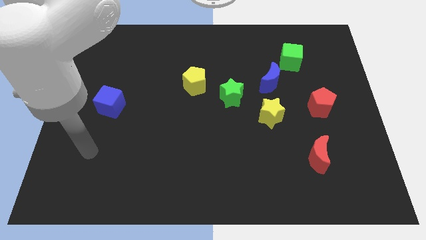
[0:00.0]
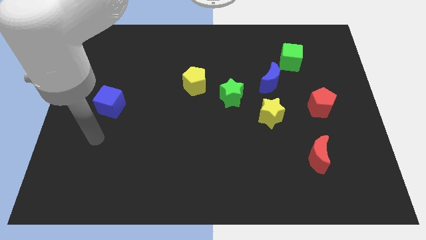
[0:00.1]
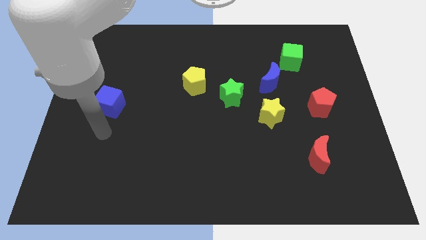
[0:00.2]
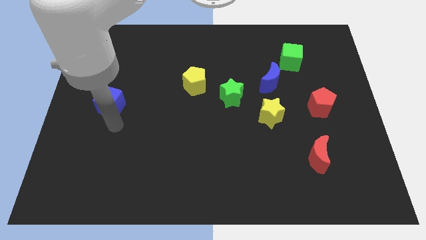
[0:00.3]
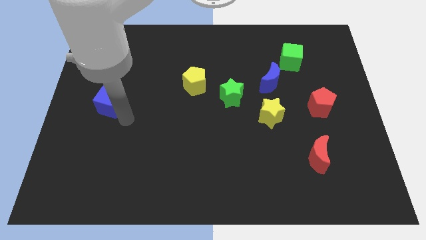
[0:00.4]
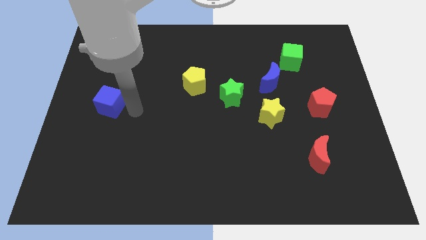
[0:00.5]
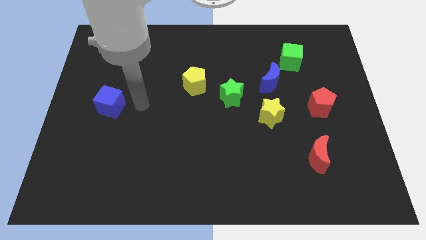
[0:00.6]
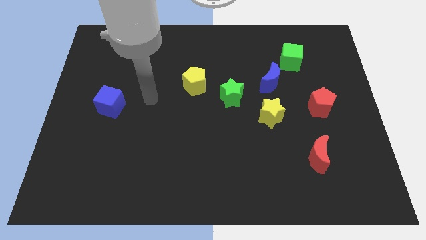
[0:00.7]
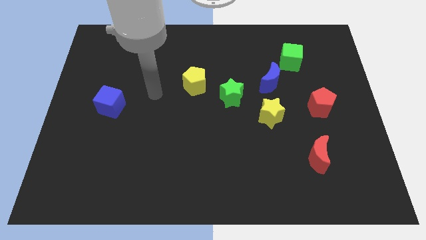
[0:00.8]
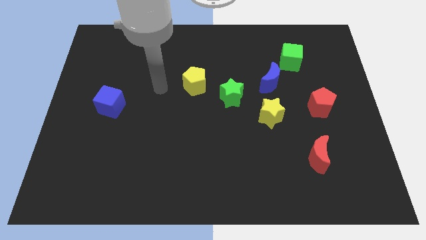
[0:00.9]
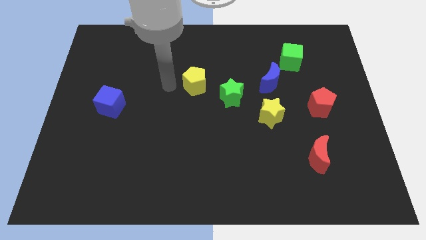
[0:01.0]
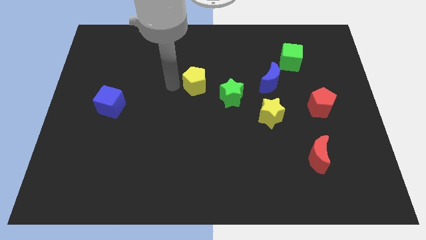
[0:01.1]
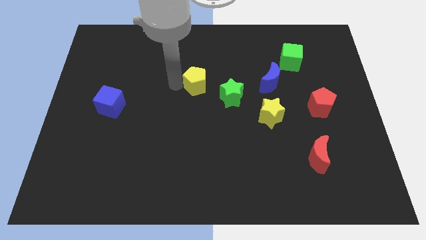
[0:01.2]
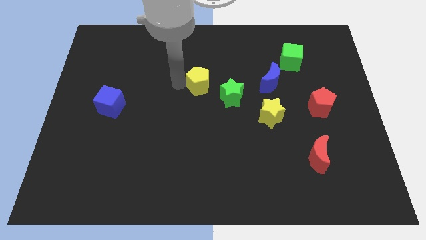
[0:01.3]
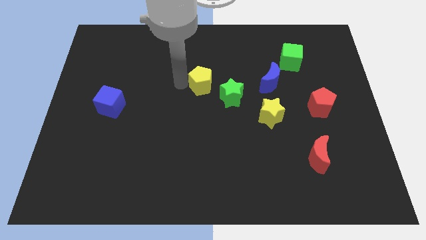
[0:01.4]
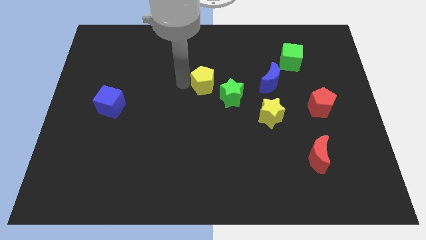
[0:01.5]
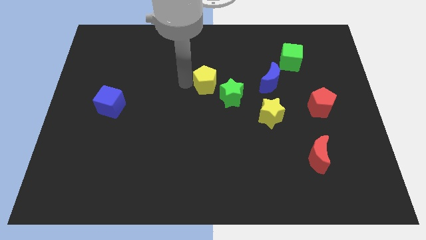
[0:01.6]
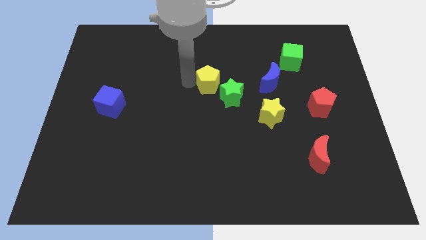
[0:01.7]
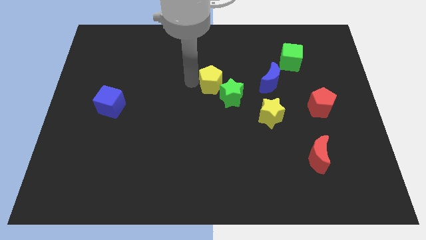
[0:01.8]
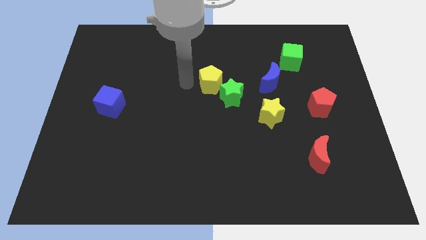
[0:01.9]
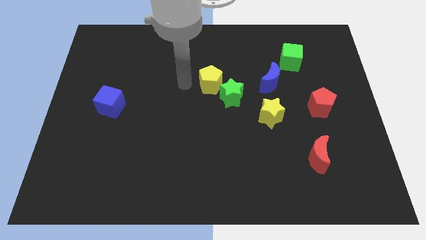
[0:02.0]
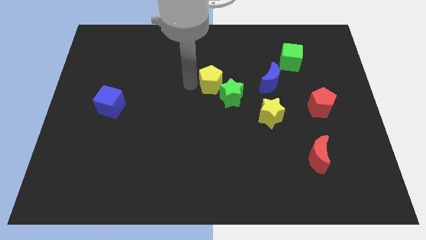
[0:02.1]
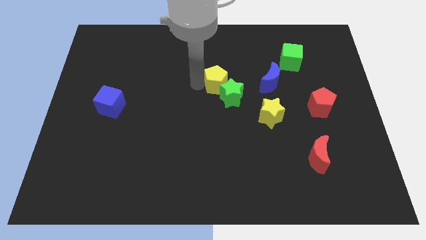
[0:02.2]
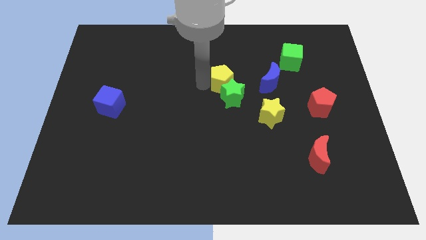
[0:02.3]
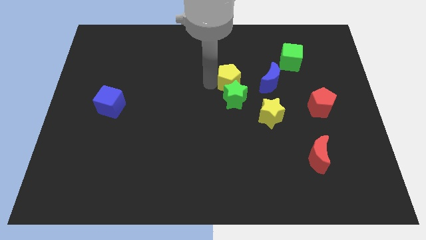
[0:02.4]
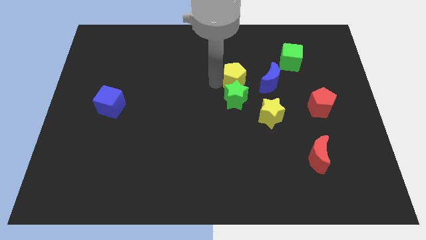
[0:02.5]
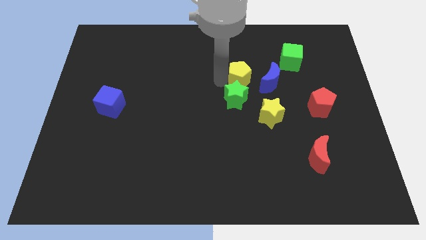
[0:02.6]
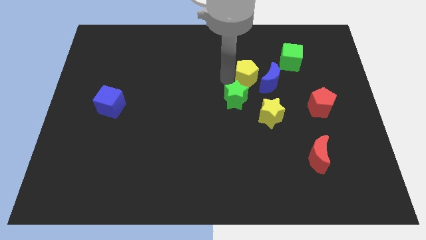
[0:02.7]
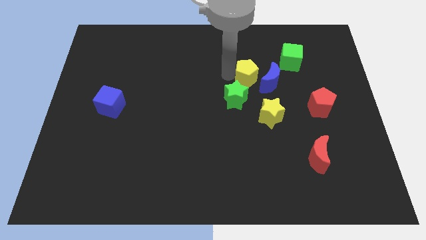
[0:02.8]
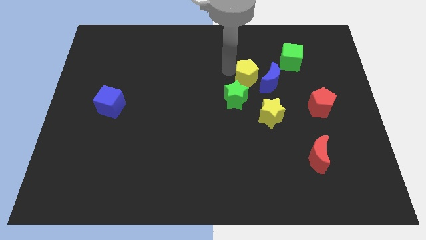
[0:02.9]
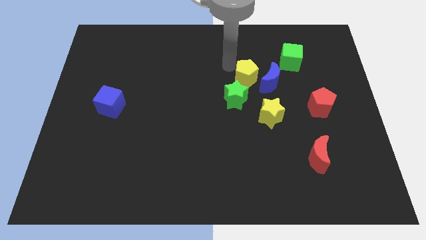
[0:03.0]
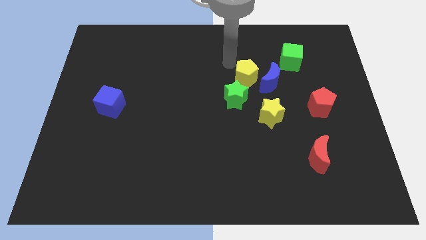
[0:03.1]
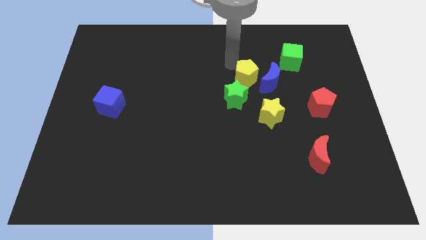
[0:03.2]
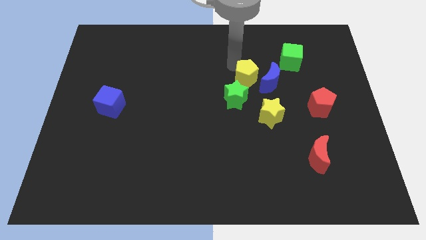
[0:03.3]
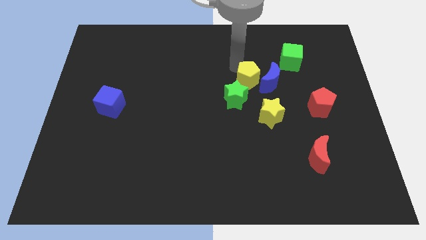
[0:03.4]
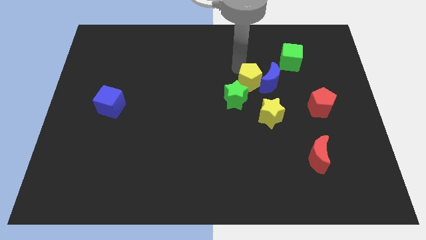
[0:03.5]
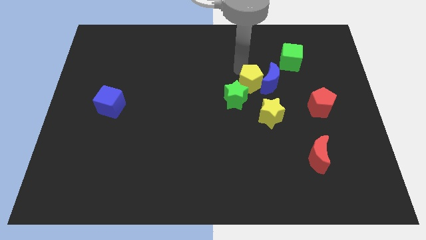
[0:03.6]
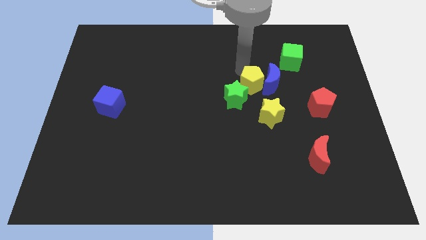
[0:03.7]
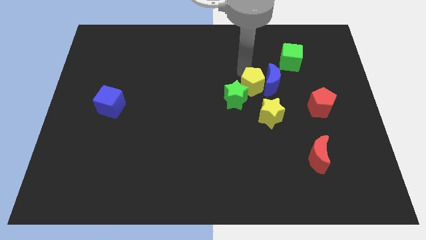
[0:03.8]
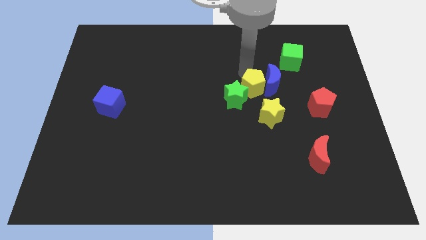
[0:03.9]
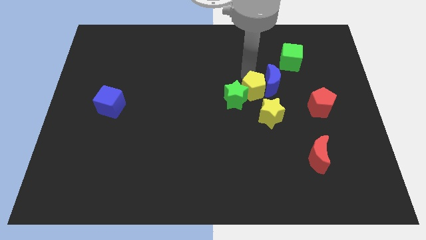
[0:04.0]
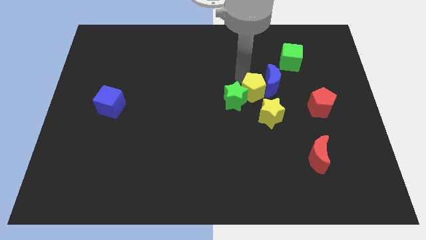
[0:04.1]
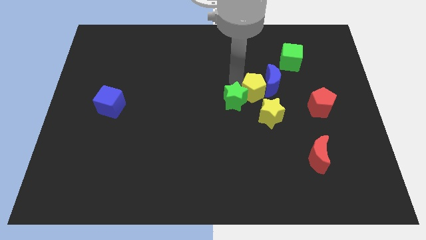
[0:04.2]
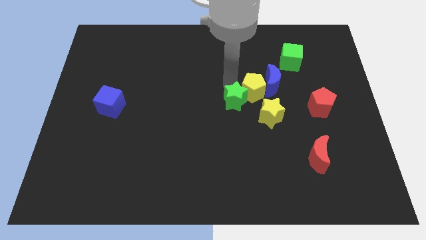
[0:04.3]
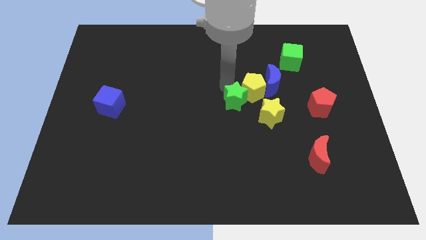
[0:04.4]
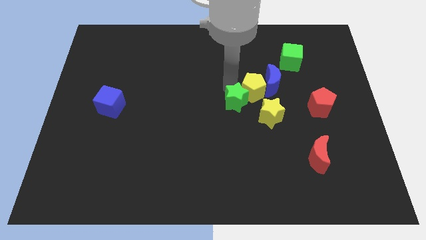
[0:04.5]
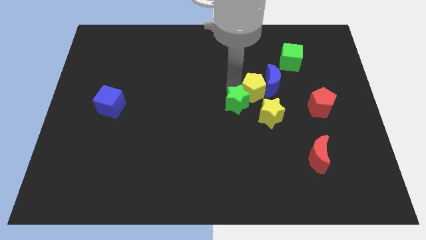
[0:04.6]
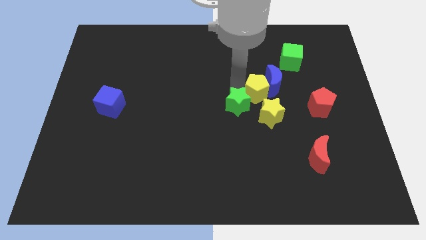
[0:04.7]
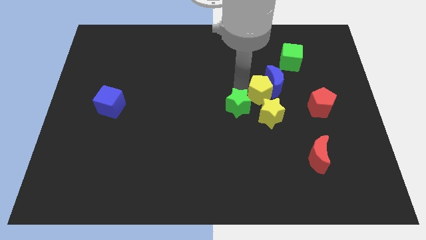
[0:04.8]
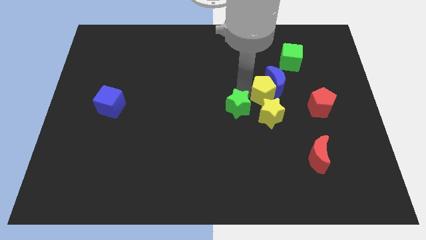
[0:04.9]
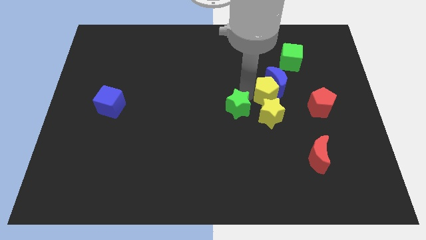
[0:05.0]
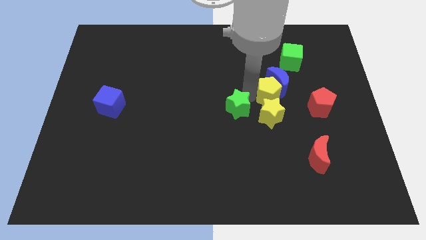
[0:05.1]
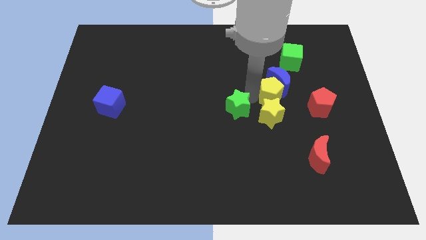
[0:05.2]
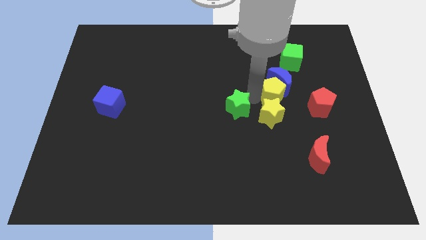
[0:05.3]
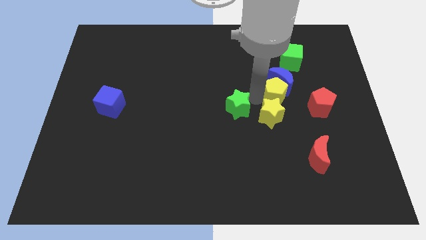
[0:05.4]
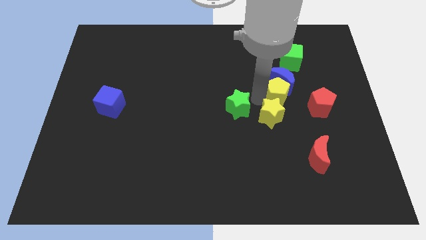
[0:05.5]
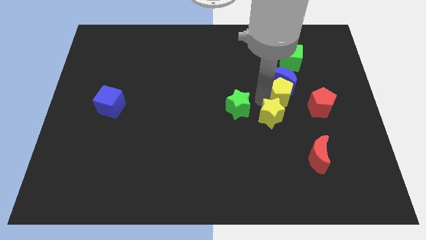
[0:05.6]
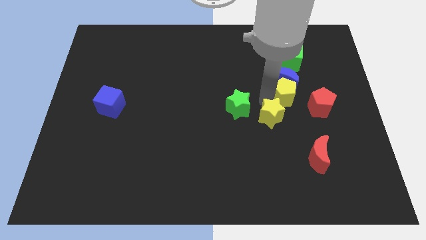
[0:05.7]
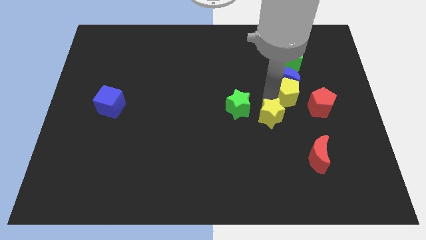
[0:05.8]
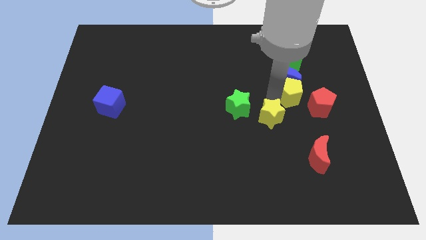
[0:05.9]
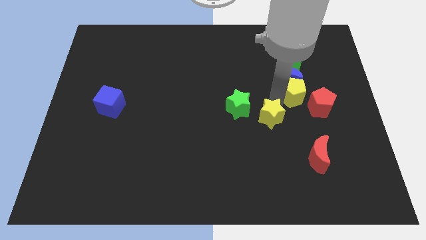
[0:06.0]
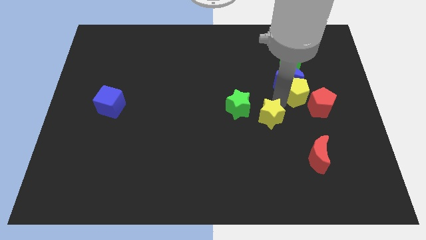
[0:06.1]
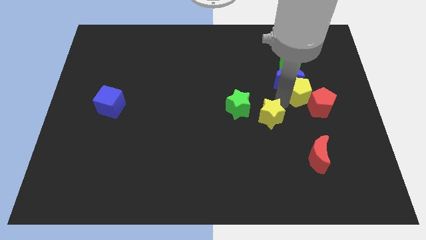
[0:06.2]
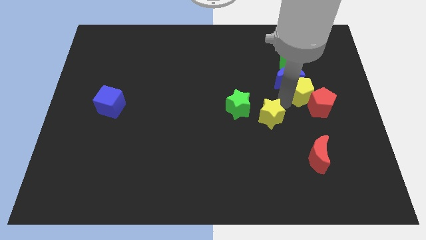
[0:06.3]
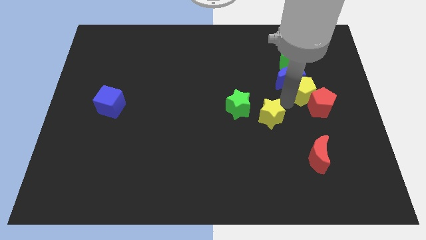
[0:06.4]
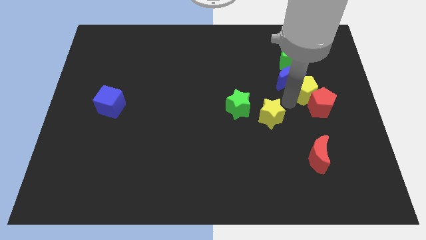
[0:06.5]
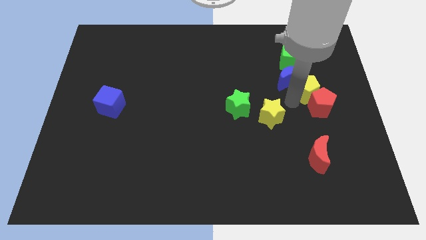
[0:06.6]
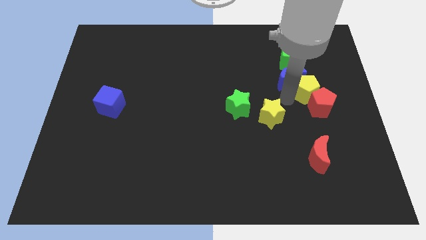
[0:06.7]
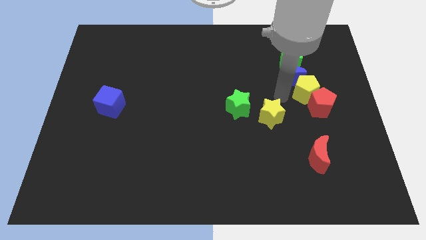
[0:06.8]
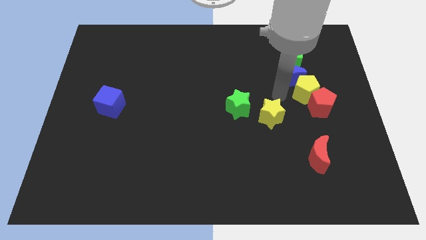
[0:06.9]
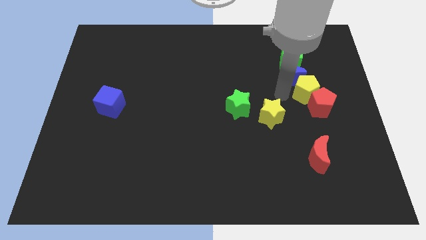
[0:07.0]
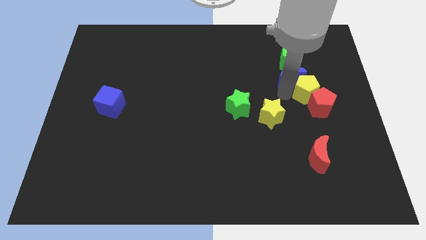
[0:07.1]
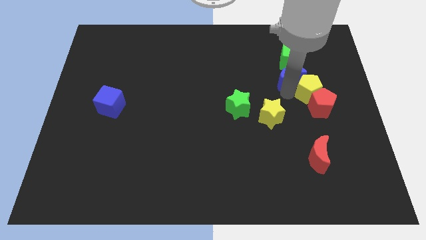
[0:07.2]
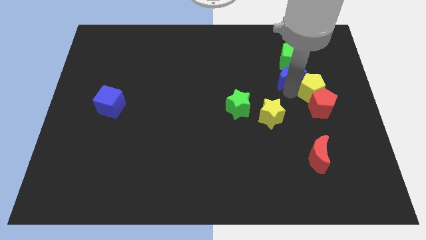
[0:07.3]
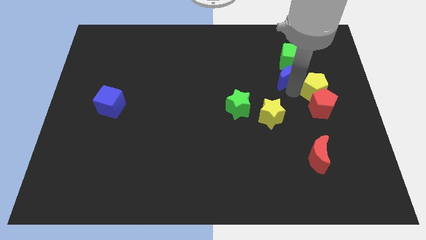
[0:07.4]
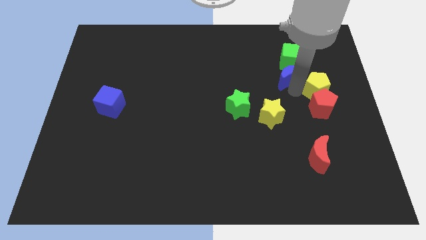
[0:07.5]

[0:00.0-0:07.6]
slide the yellow pentagon to the right side of the board
